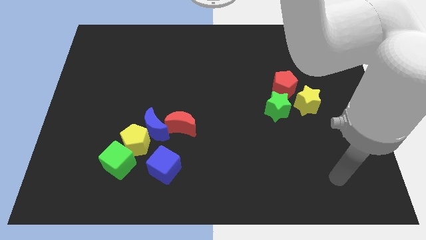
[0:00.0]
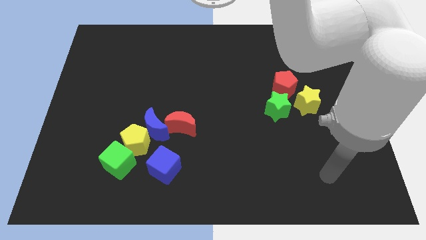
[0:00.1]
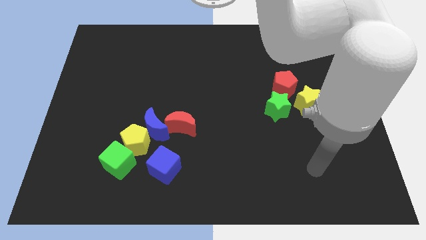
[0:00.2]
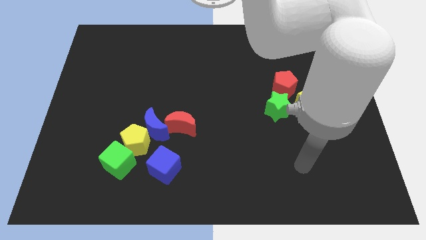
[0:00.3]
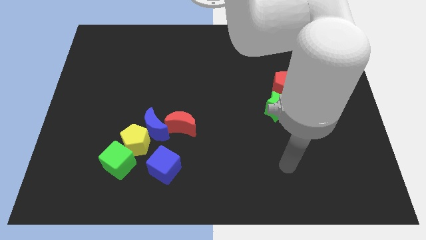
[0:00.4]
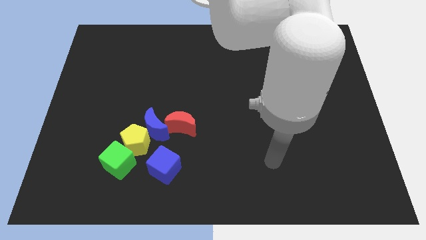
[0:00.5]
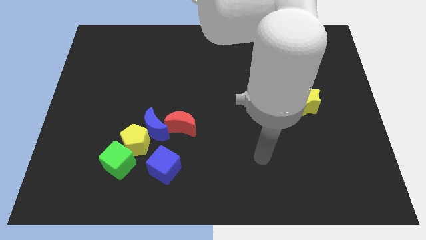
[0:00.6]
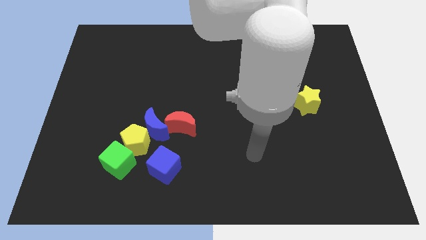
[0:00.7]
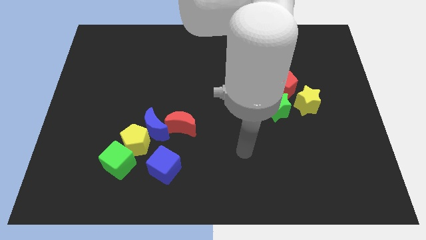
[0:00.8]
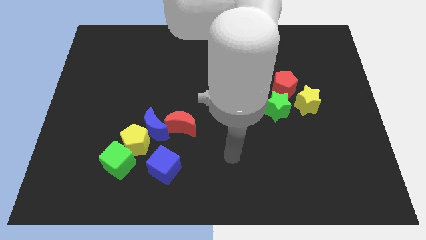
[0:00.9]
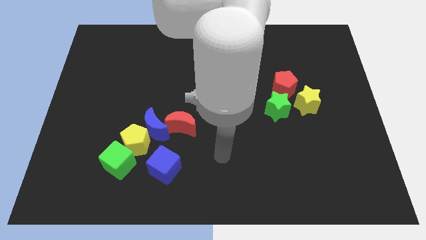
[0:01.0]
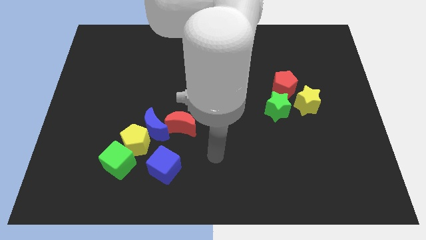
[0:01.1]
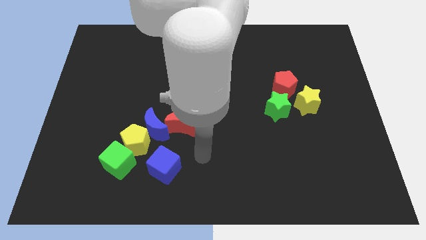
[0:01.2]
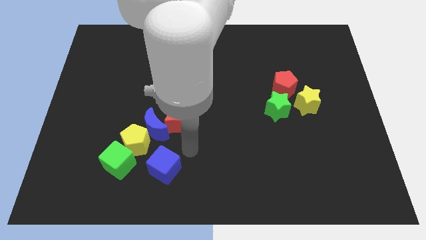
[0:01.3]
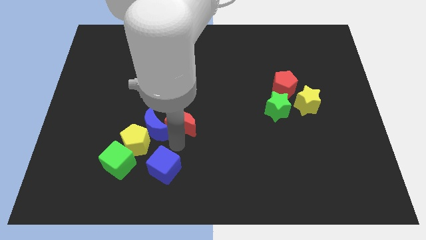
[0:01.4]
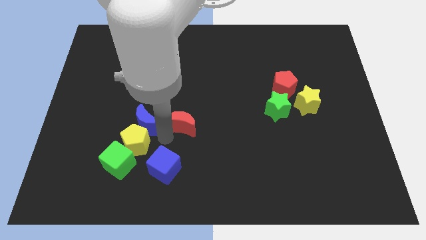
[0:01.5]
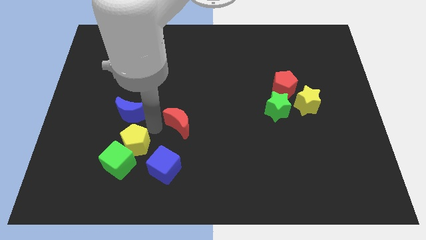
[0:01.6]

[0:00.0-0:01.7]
pull the red moon apart from the blue moon

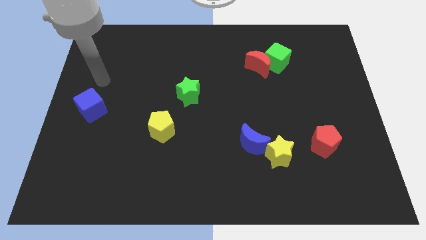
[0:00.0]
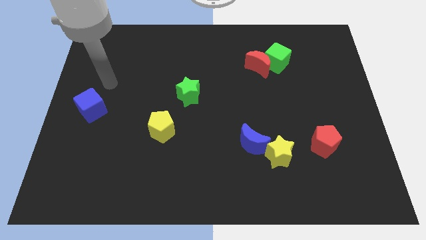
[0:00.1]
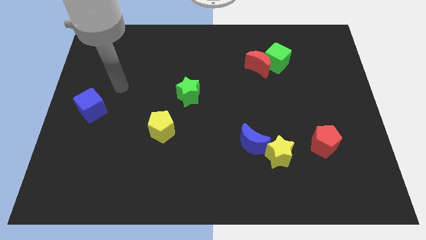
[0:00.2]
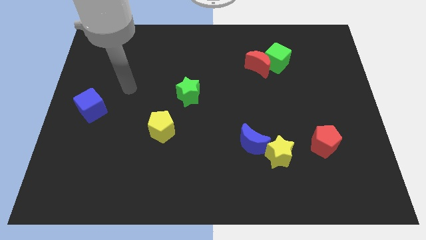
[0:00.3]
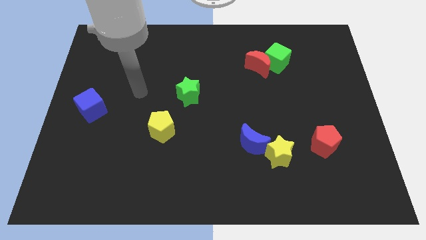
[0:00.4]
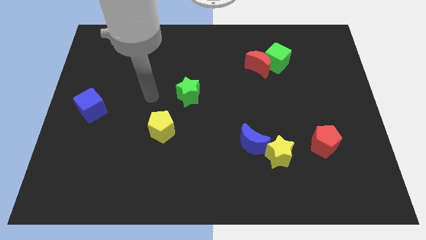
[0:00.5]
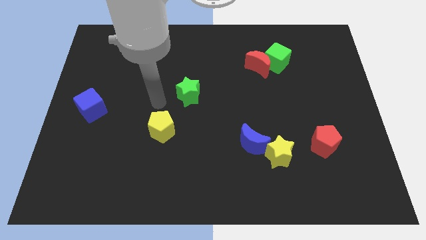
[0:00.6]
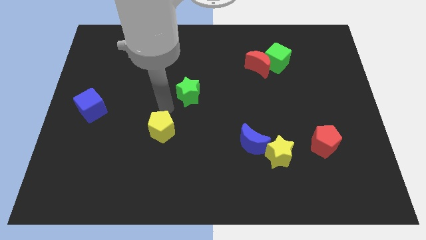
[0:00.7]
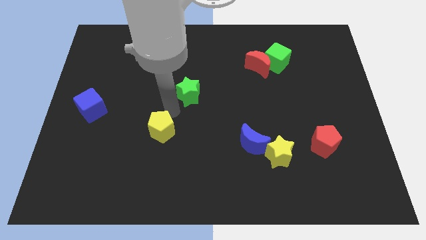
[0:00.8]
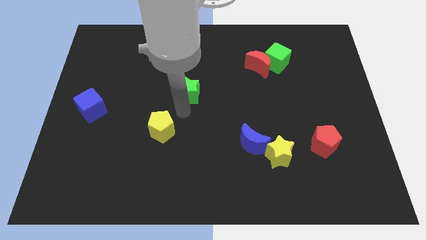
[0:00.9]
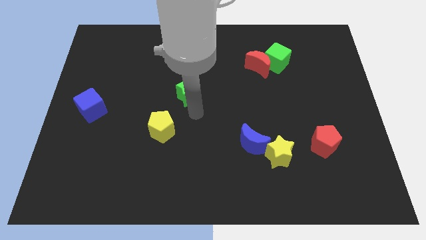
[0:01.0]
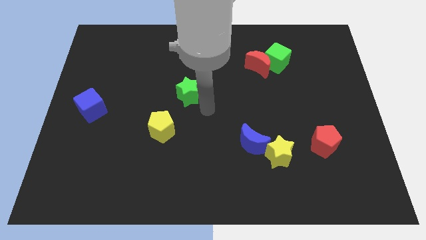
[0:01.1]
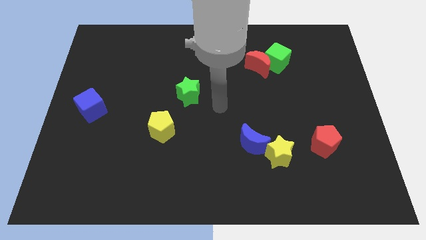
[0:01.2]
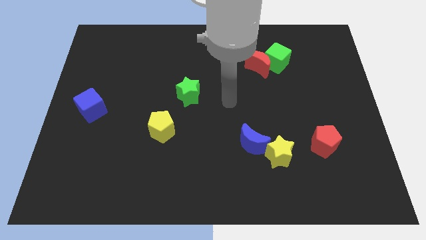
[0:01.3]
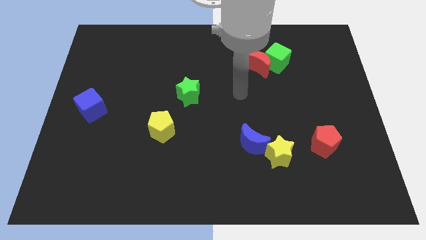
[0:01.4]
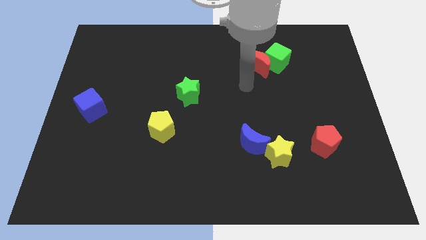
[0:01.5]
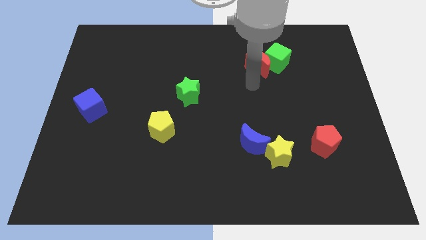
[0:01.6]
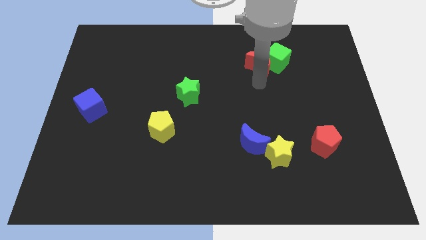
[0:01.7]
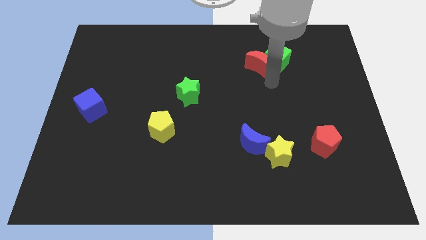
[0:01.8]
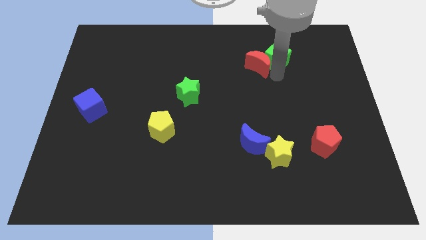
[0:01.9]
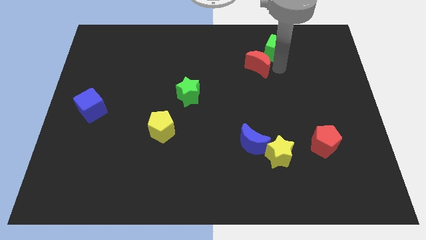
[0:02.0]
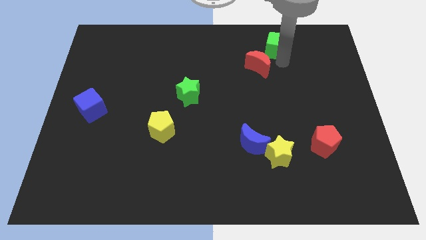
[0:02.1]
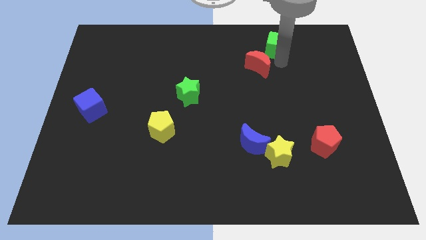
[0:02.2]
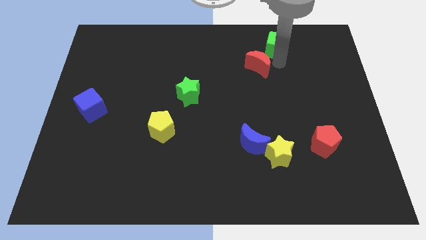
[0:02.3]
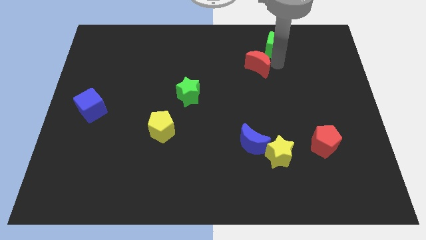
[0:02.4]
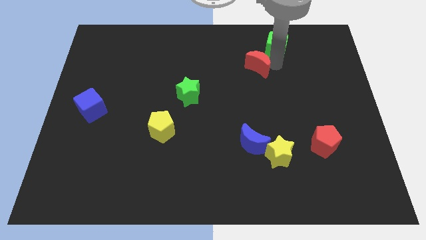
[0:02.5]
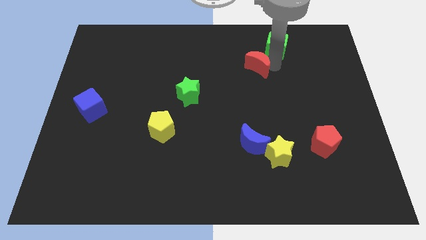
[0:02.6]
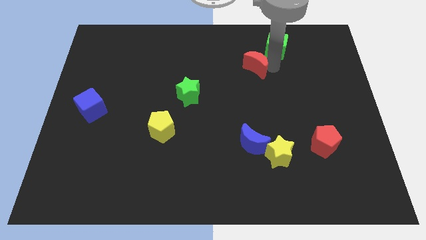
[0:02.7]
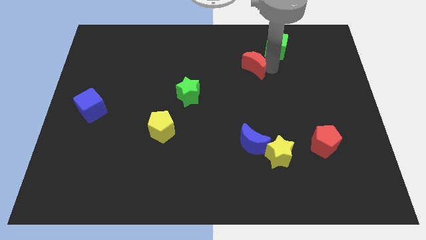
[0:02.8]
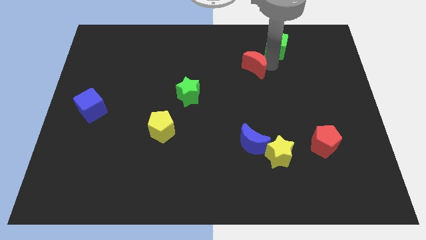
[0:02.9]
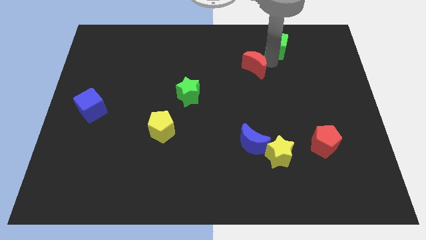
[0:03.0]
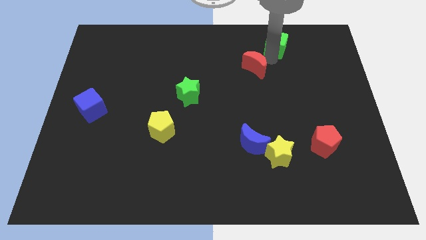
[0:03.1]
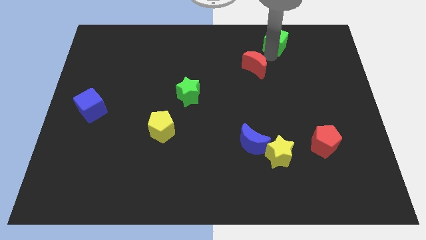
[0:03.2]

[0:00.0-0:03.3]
separate the red moon from the green cube

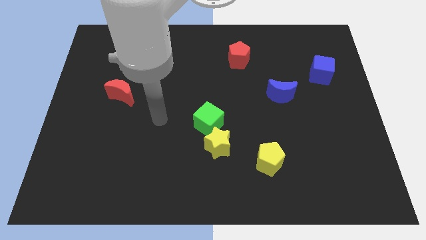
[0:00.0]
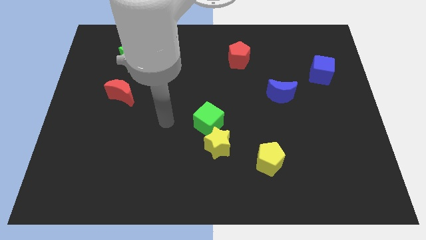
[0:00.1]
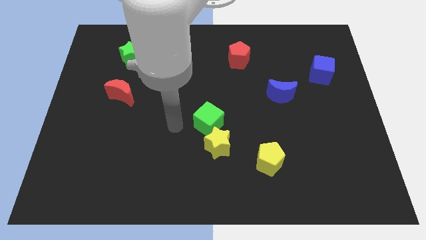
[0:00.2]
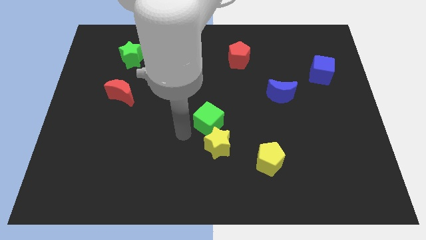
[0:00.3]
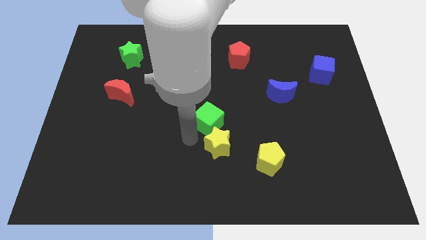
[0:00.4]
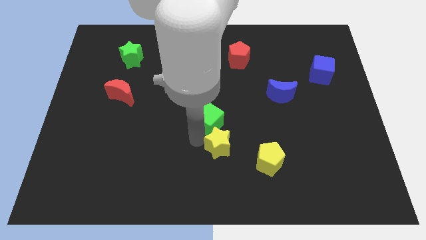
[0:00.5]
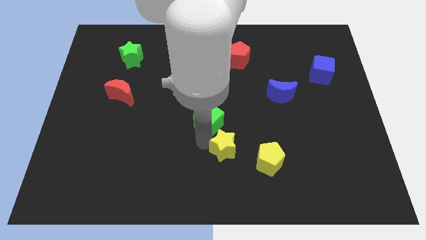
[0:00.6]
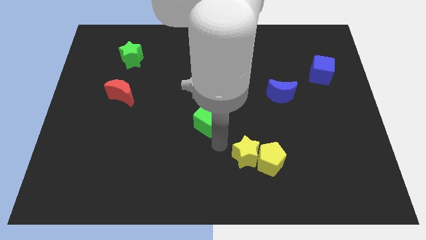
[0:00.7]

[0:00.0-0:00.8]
pull the green cube apart from the yellow star

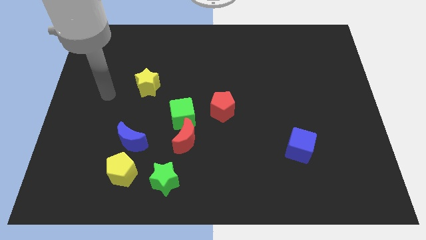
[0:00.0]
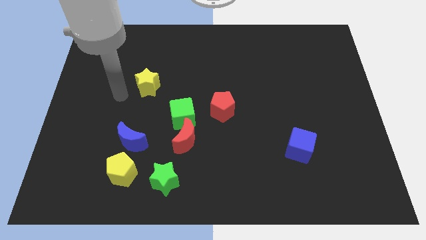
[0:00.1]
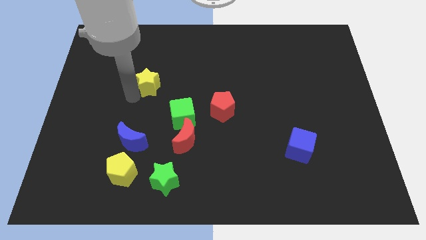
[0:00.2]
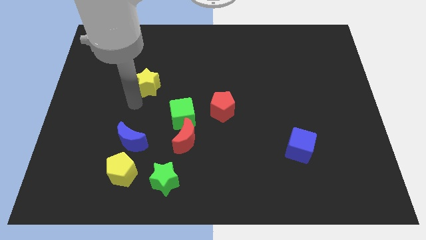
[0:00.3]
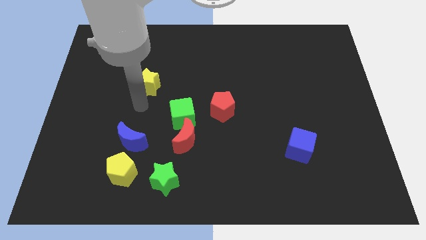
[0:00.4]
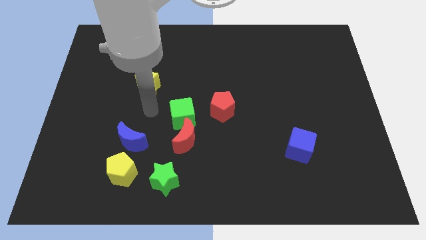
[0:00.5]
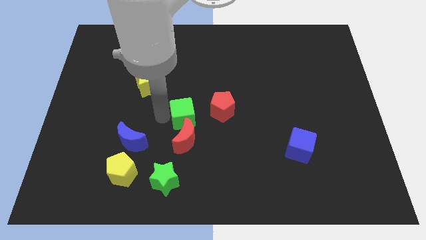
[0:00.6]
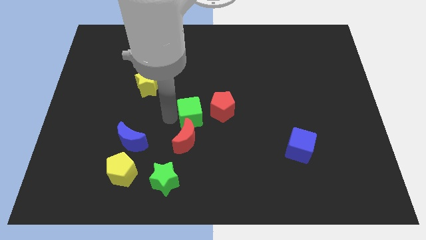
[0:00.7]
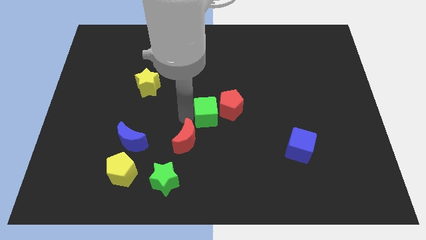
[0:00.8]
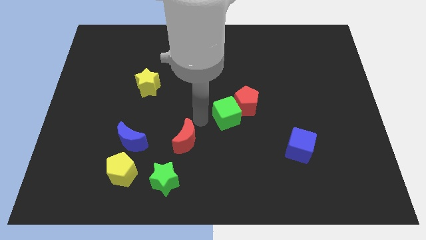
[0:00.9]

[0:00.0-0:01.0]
move the red moon away from the green cube

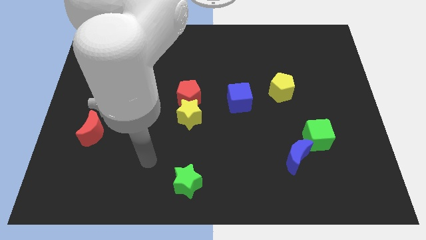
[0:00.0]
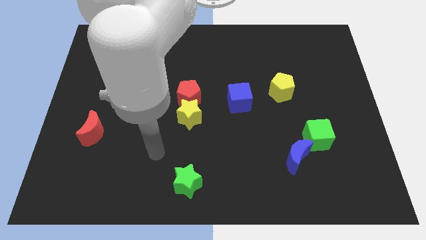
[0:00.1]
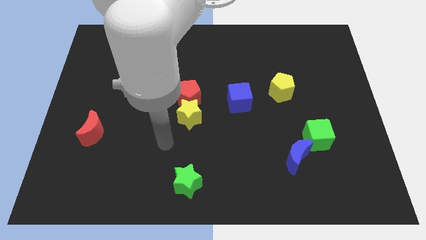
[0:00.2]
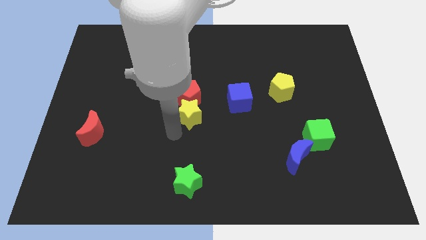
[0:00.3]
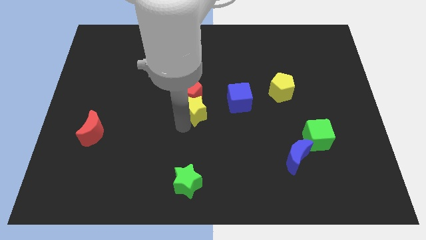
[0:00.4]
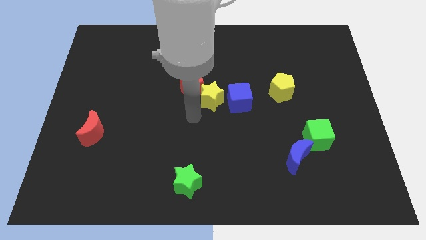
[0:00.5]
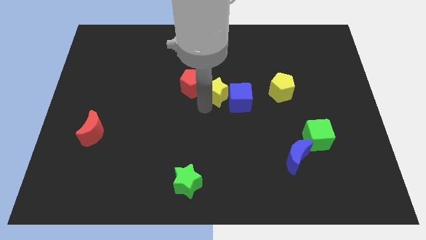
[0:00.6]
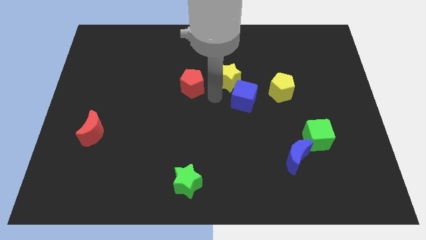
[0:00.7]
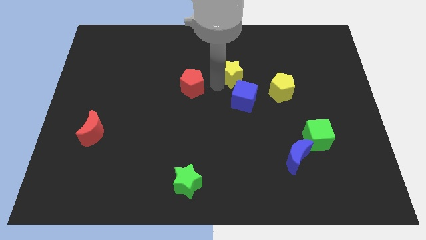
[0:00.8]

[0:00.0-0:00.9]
move the red pentagon away from the yellow star

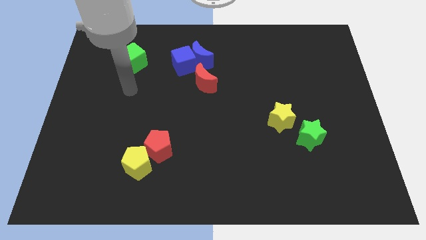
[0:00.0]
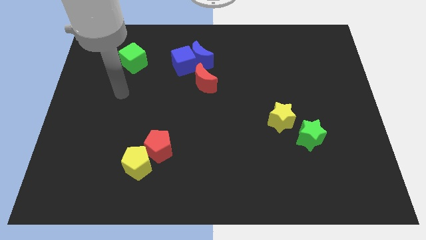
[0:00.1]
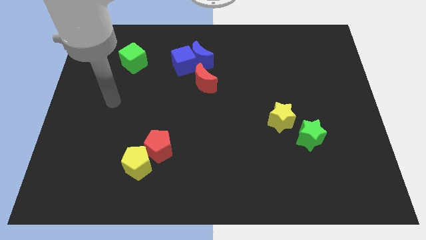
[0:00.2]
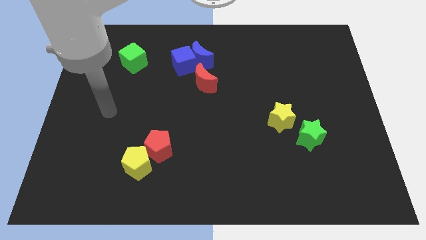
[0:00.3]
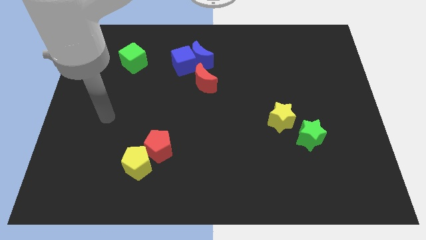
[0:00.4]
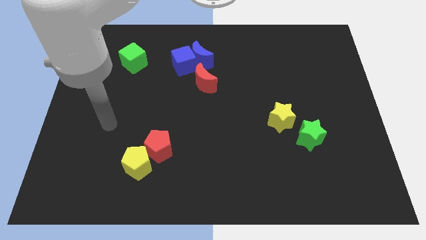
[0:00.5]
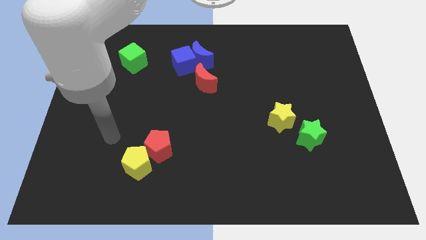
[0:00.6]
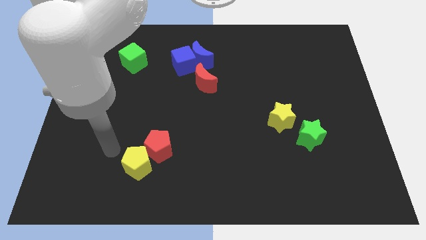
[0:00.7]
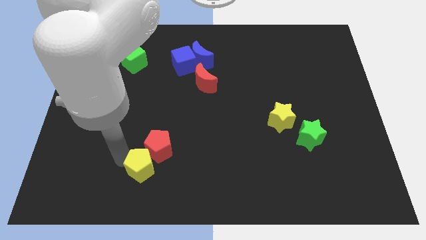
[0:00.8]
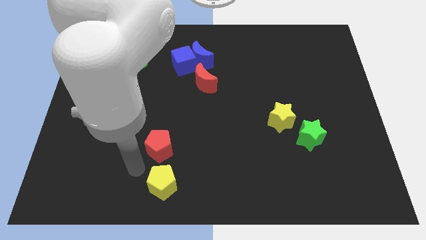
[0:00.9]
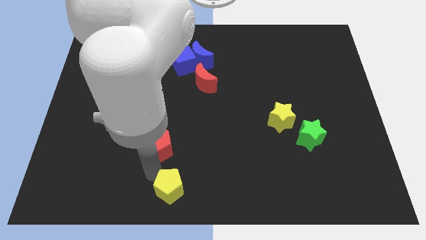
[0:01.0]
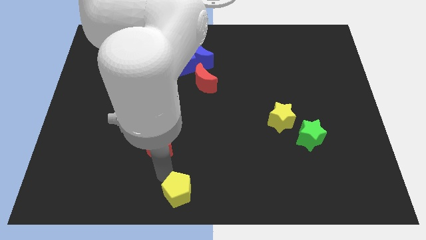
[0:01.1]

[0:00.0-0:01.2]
move the red pentagon away from the yellow pentagon

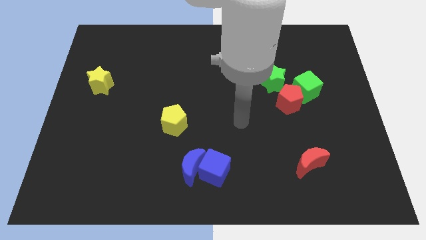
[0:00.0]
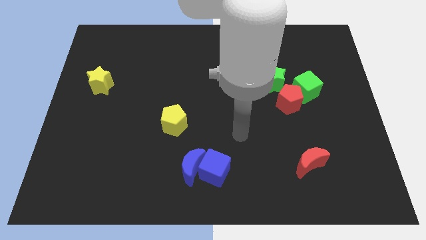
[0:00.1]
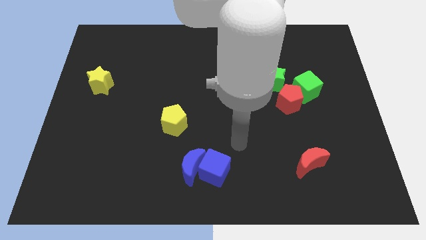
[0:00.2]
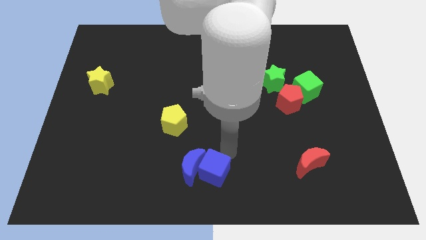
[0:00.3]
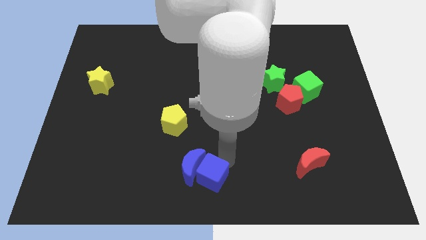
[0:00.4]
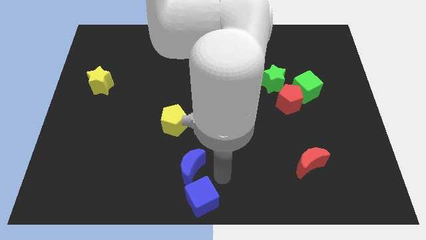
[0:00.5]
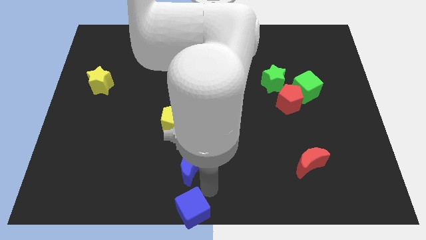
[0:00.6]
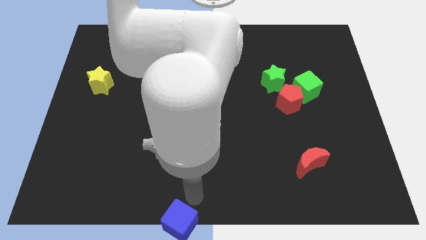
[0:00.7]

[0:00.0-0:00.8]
separate the blue moon from the blue cube
